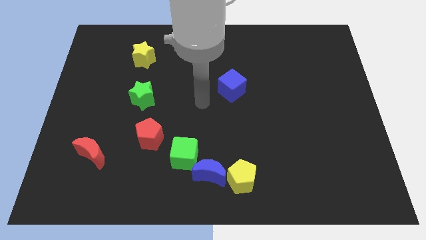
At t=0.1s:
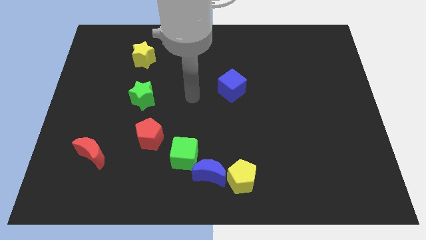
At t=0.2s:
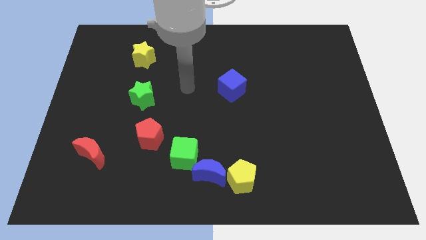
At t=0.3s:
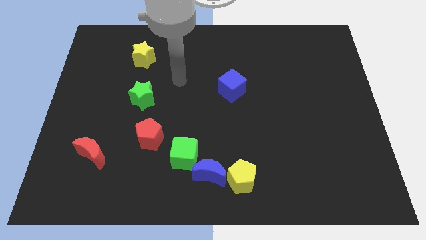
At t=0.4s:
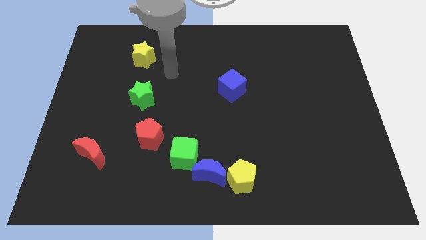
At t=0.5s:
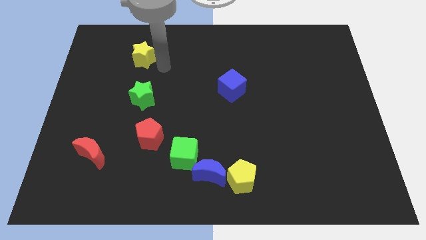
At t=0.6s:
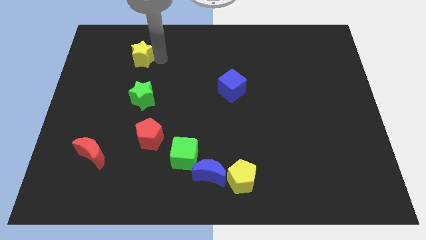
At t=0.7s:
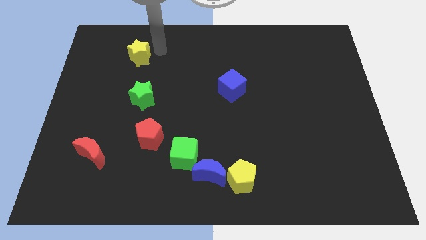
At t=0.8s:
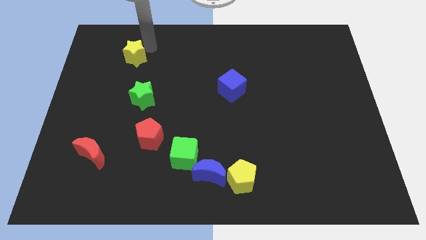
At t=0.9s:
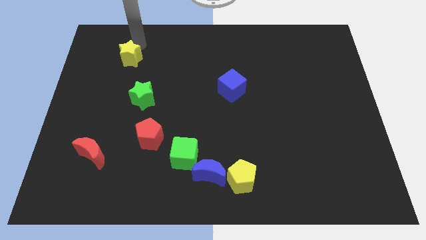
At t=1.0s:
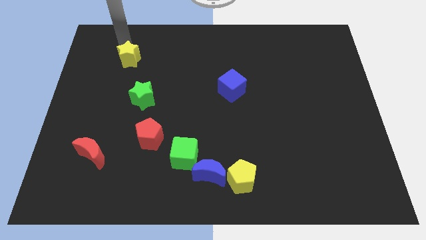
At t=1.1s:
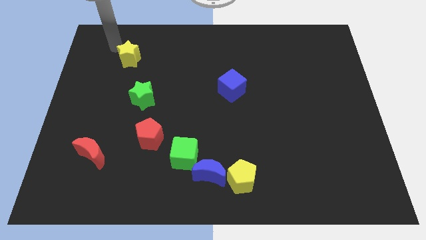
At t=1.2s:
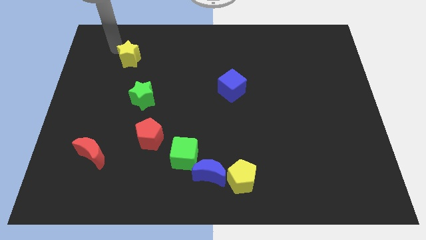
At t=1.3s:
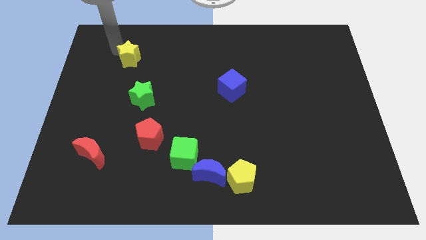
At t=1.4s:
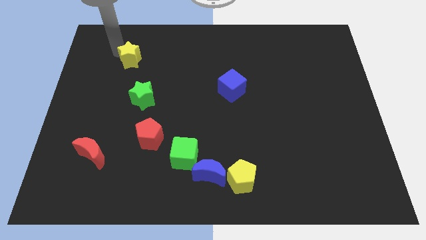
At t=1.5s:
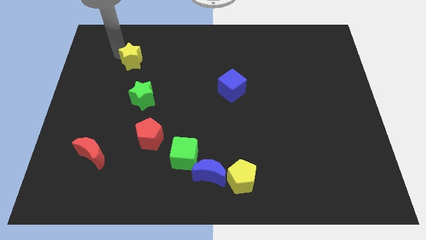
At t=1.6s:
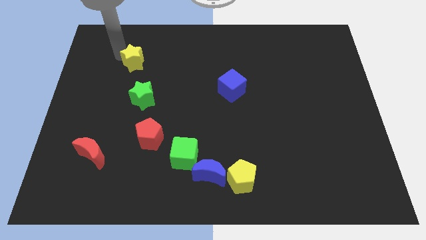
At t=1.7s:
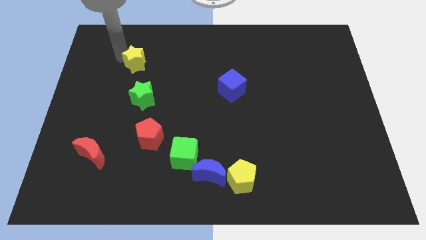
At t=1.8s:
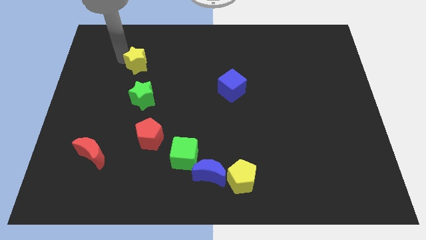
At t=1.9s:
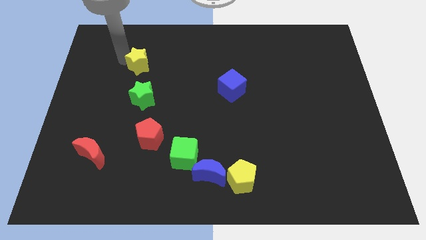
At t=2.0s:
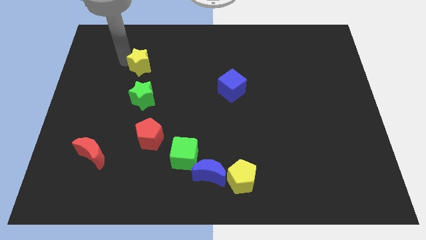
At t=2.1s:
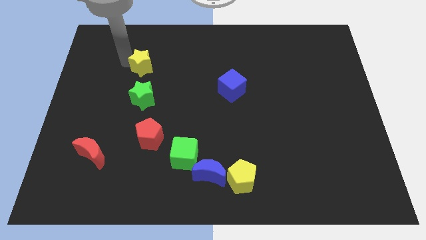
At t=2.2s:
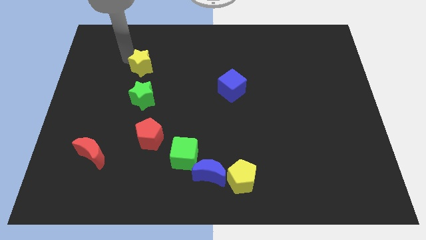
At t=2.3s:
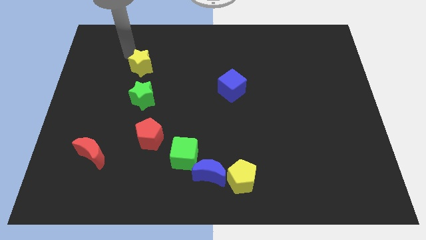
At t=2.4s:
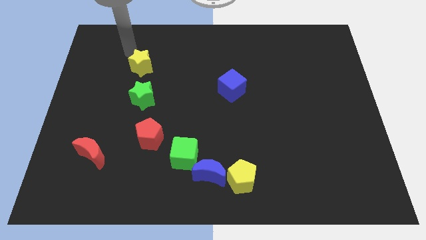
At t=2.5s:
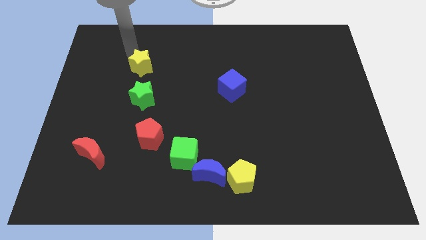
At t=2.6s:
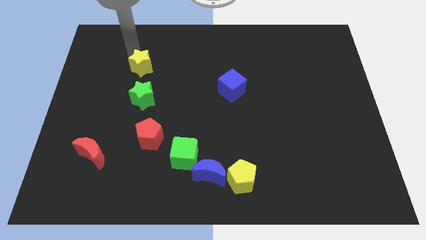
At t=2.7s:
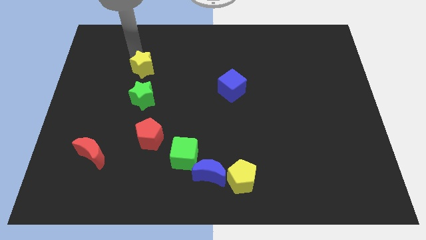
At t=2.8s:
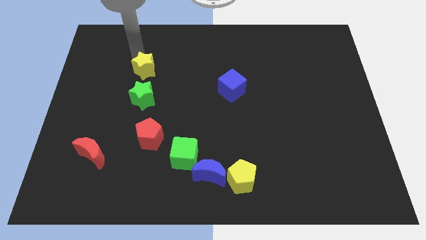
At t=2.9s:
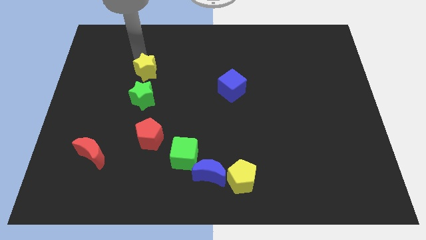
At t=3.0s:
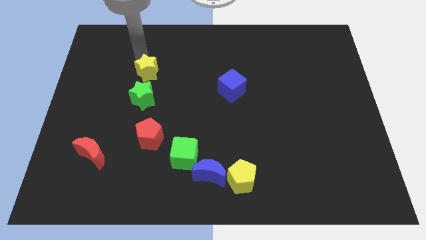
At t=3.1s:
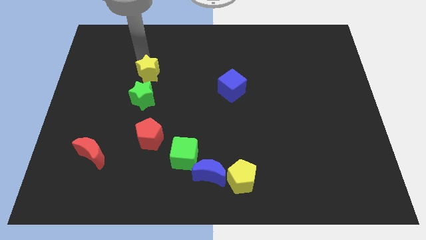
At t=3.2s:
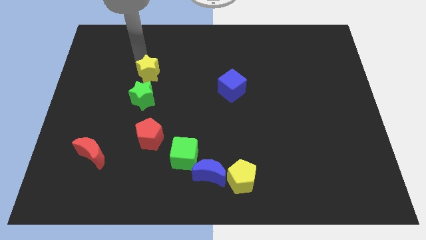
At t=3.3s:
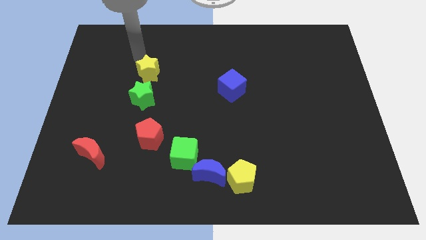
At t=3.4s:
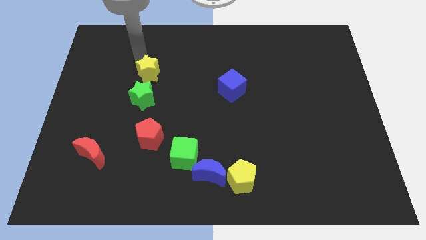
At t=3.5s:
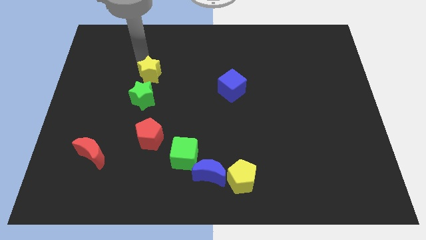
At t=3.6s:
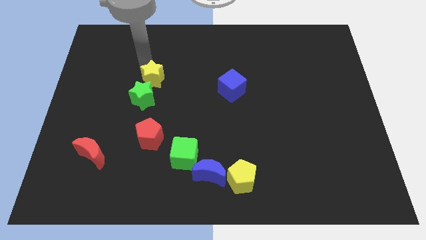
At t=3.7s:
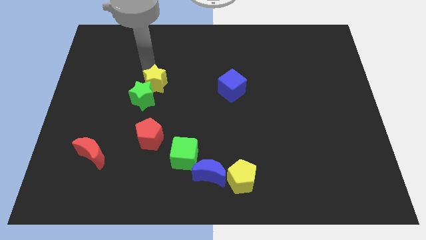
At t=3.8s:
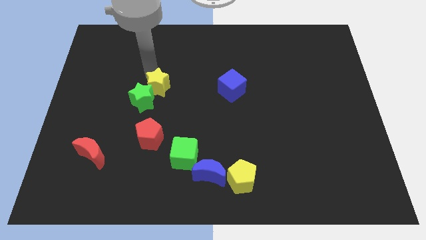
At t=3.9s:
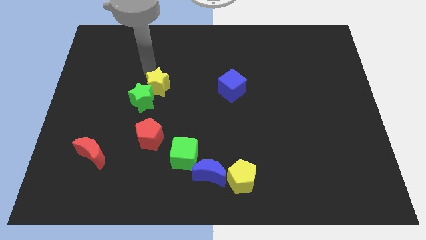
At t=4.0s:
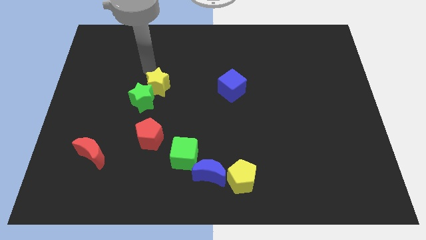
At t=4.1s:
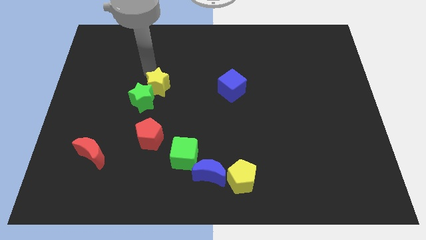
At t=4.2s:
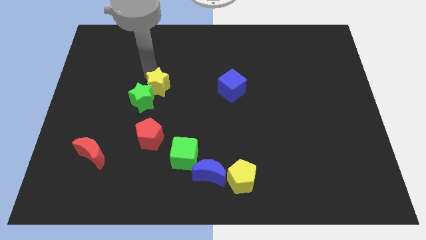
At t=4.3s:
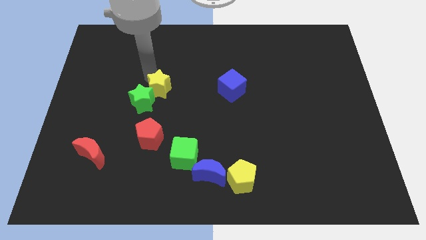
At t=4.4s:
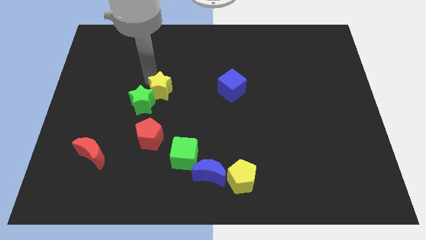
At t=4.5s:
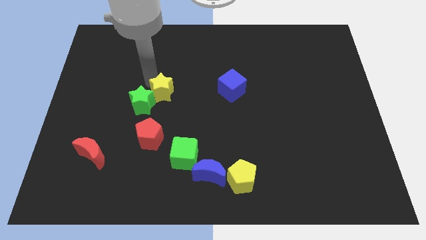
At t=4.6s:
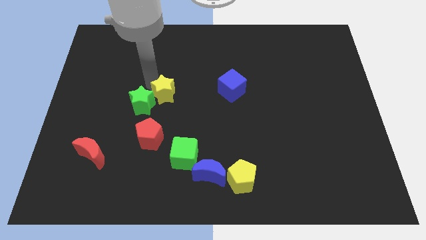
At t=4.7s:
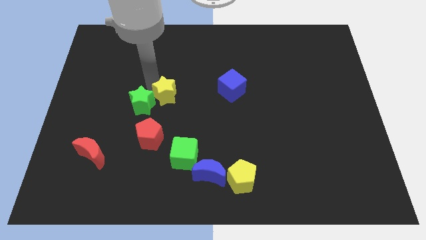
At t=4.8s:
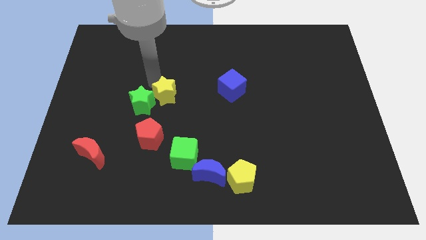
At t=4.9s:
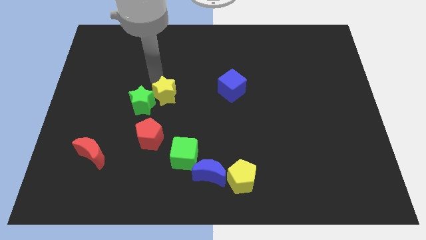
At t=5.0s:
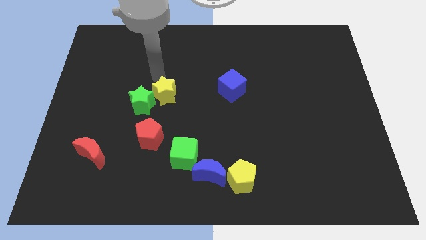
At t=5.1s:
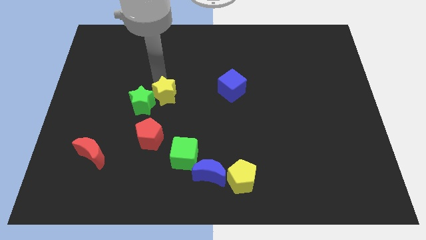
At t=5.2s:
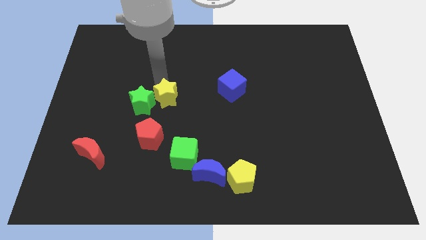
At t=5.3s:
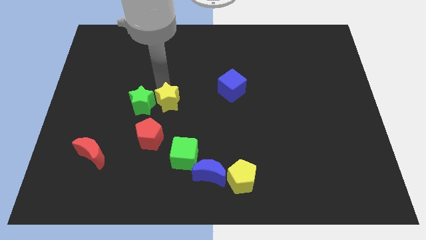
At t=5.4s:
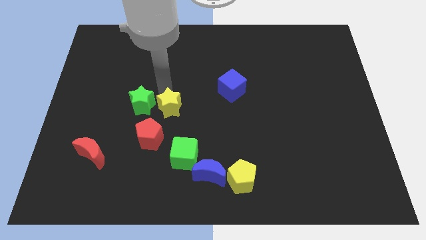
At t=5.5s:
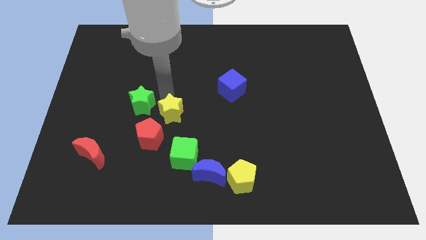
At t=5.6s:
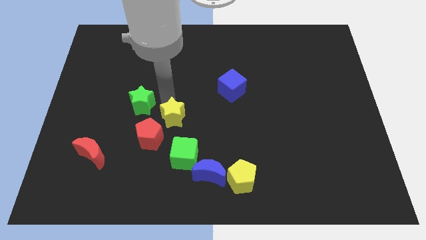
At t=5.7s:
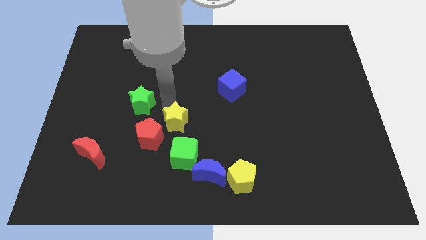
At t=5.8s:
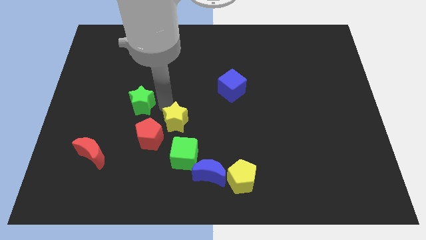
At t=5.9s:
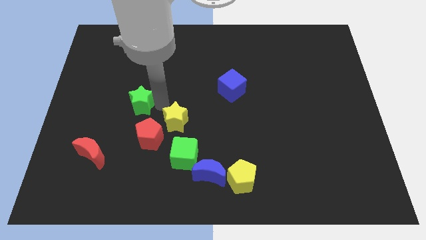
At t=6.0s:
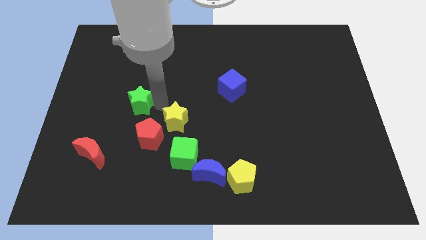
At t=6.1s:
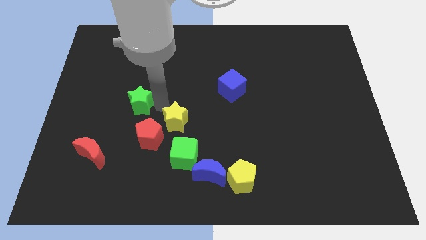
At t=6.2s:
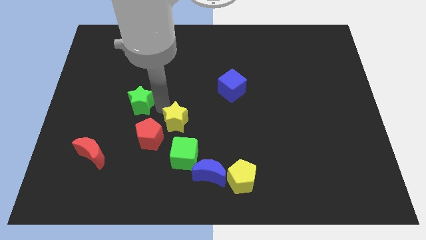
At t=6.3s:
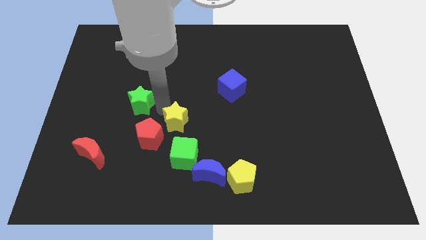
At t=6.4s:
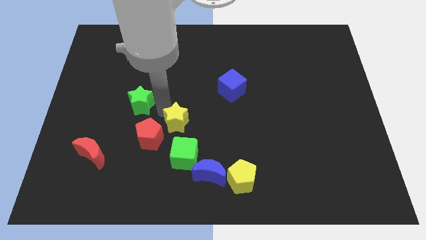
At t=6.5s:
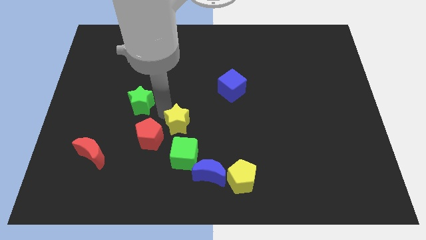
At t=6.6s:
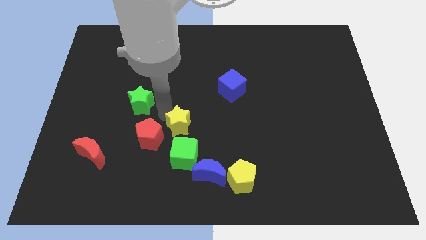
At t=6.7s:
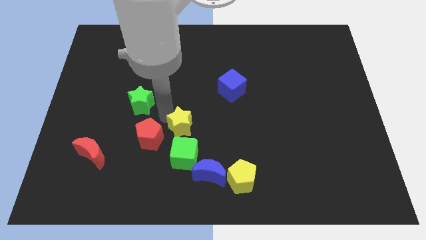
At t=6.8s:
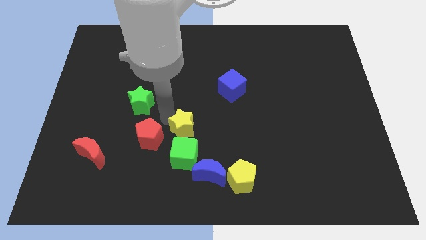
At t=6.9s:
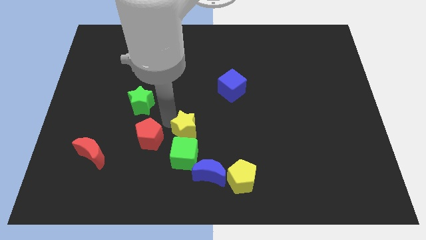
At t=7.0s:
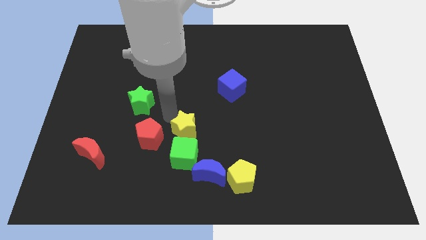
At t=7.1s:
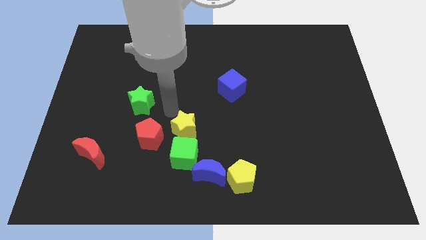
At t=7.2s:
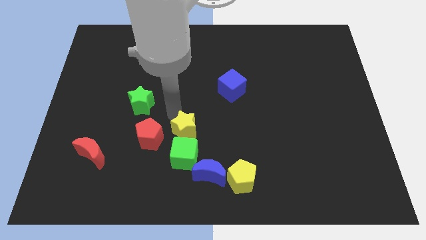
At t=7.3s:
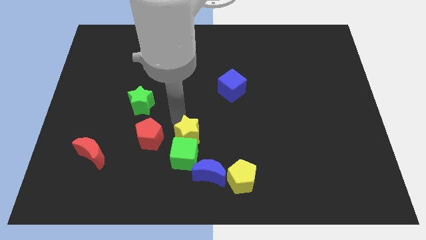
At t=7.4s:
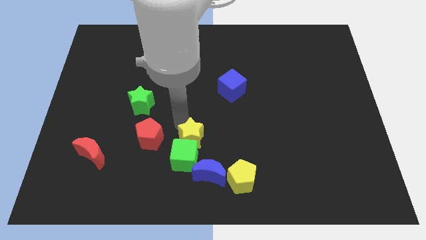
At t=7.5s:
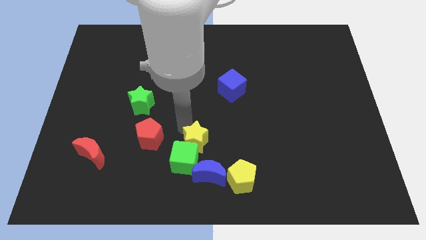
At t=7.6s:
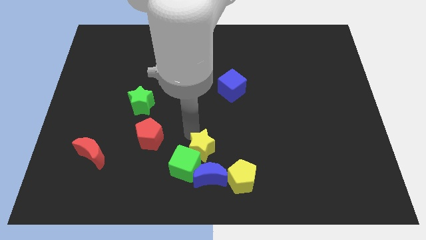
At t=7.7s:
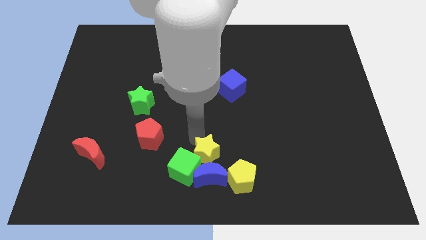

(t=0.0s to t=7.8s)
slide the yellow star close to the blue moon
